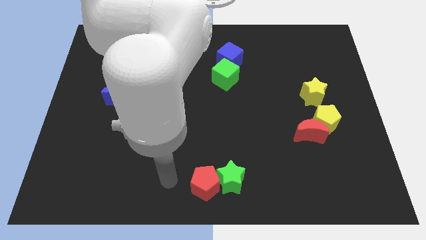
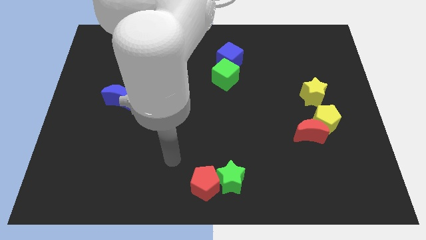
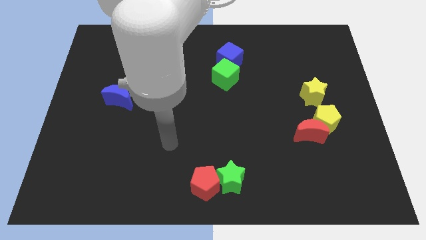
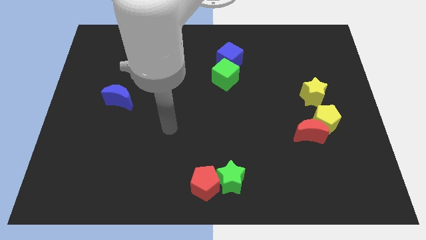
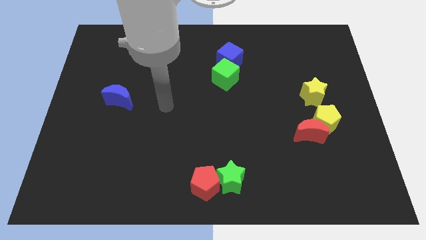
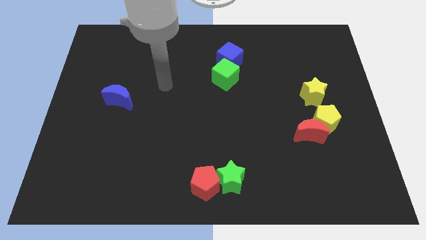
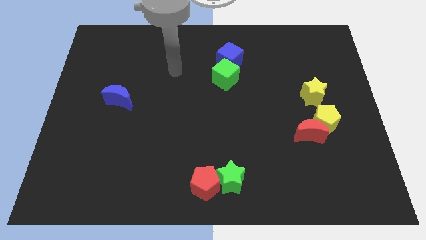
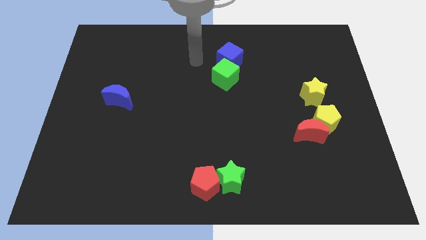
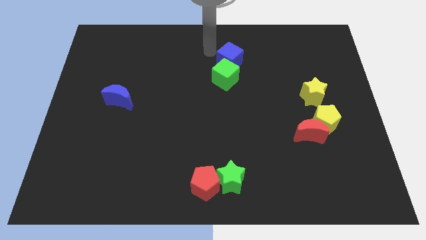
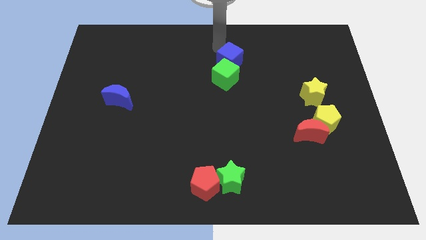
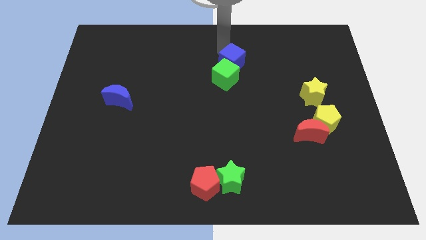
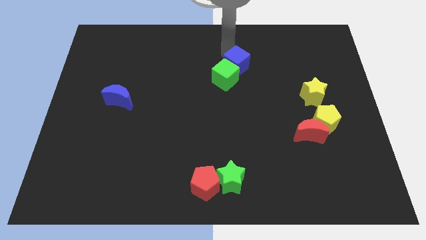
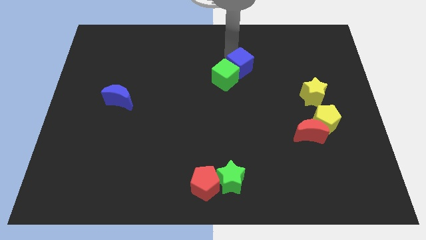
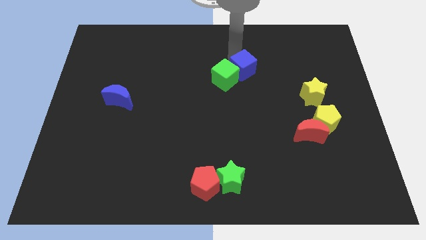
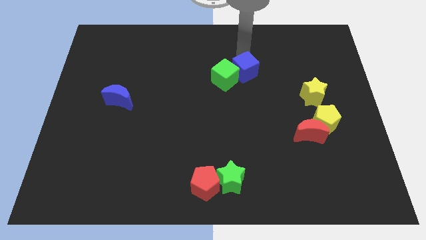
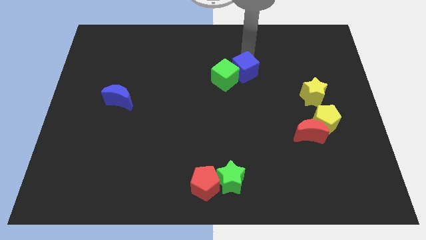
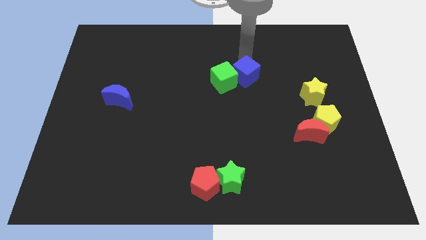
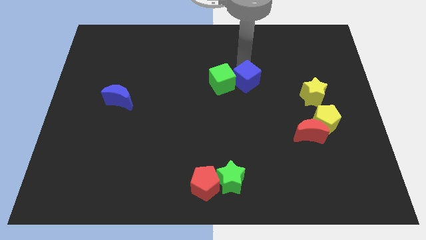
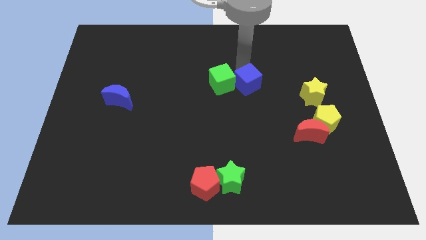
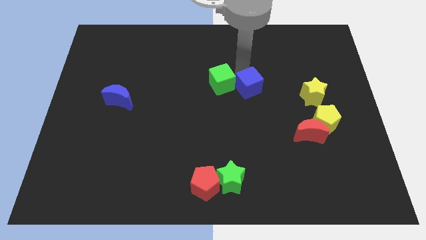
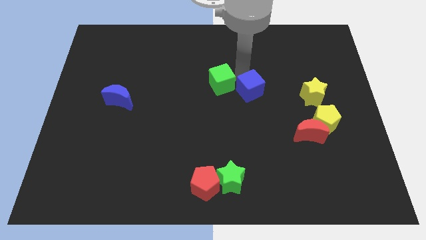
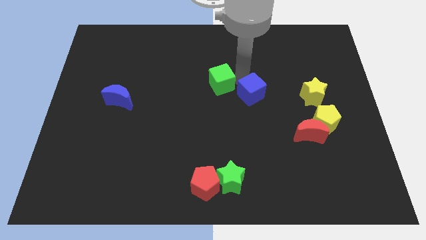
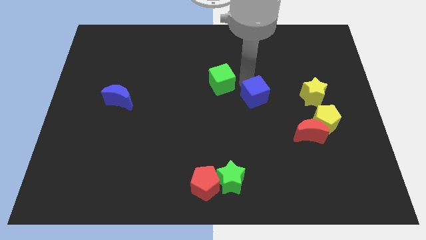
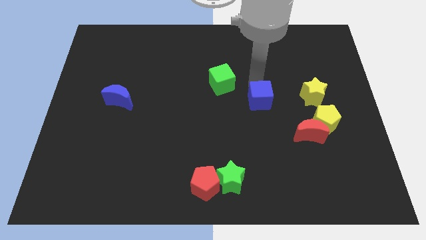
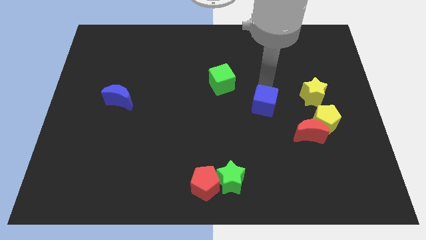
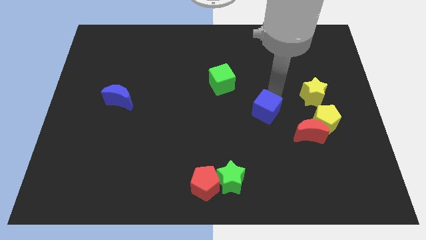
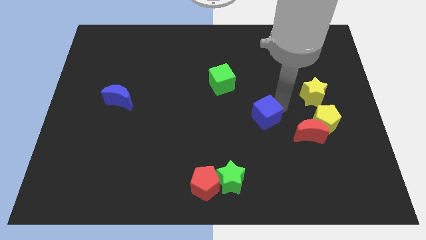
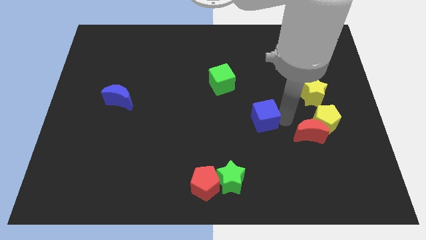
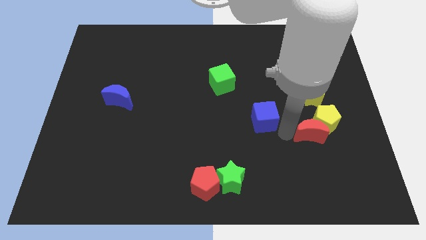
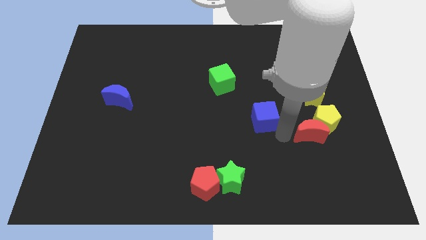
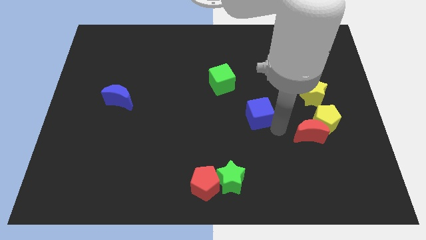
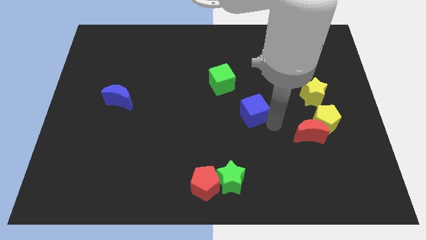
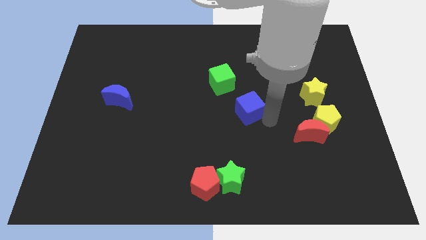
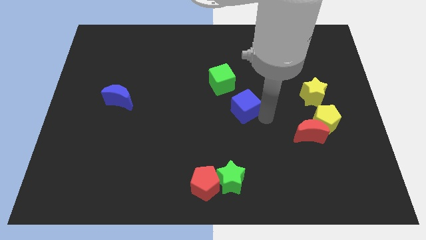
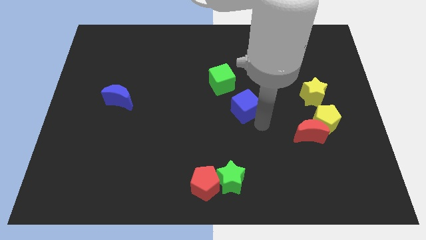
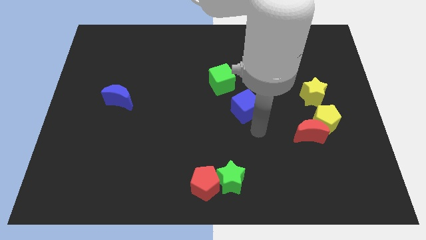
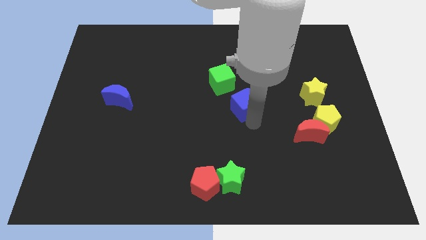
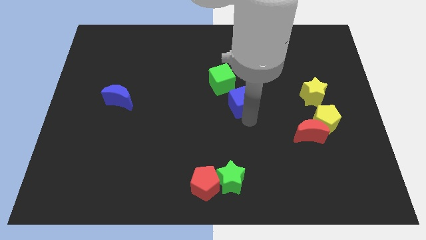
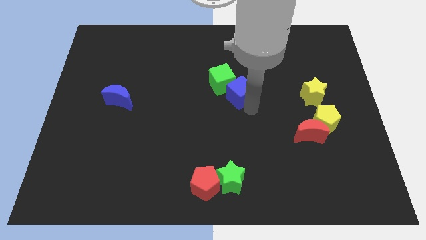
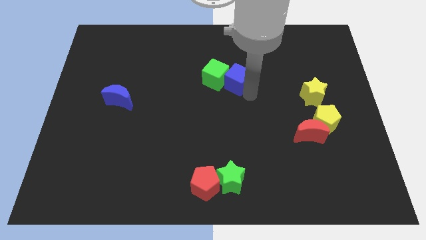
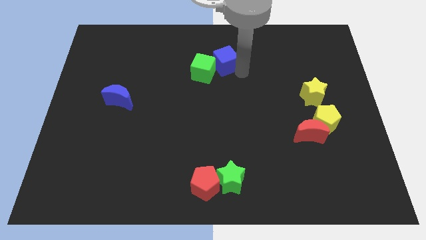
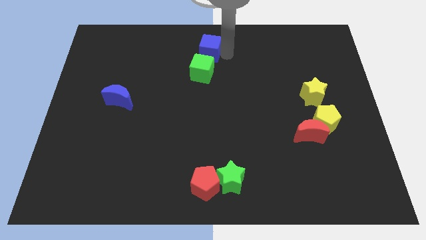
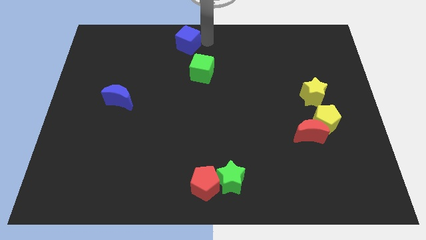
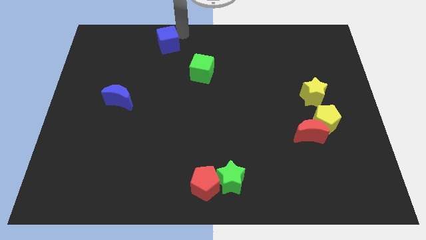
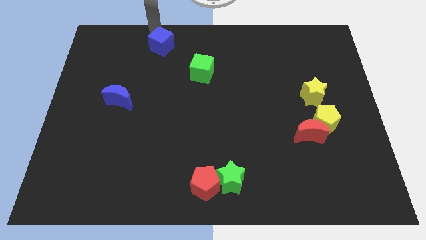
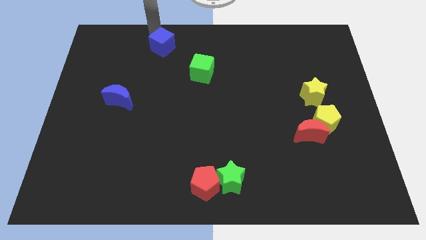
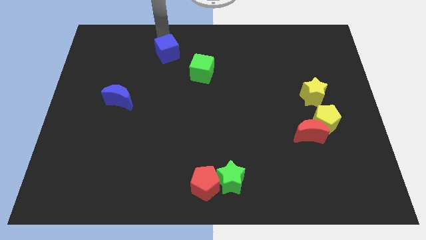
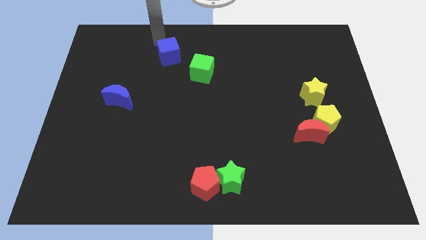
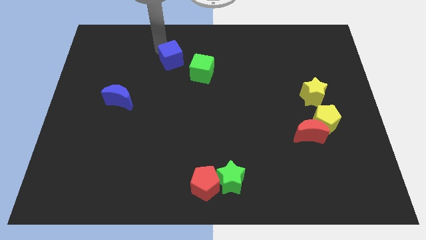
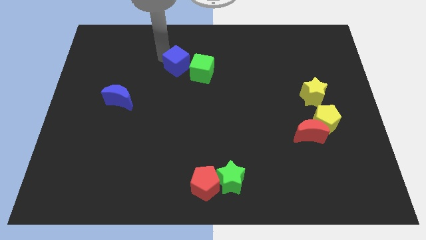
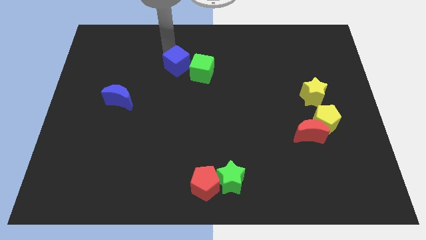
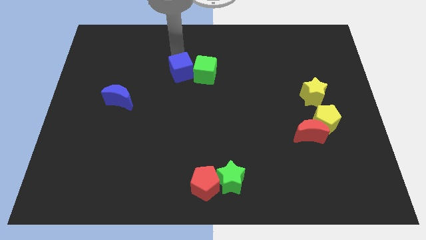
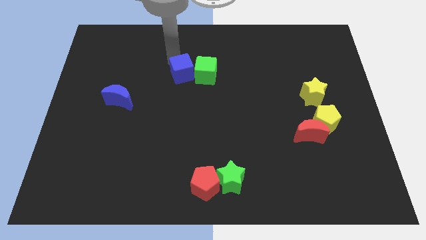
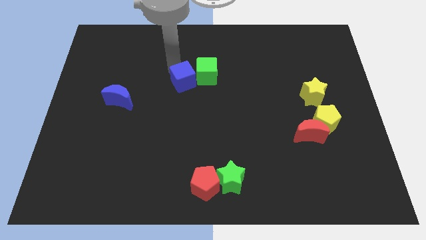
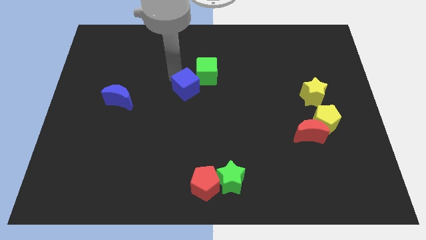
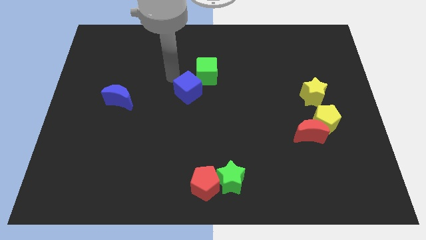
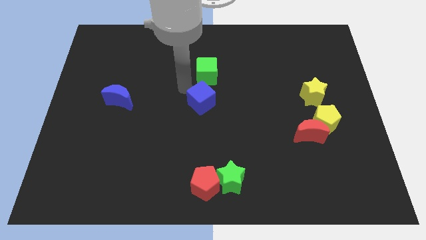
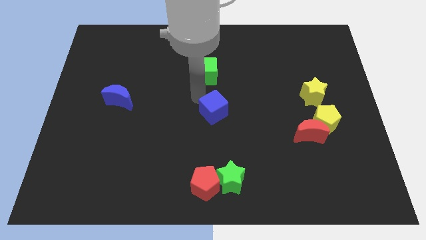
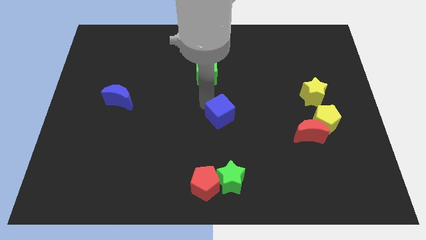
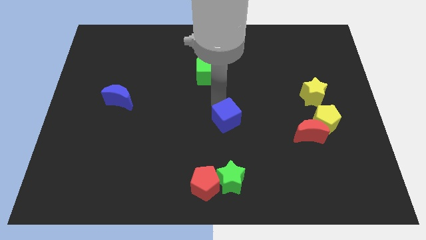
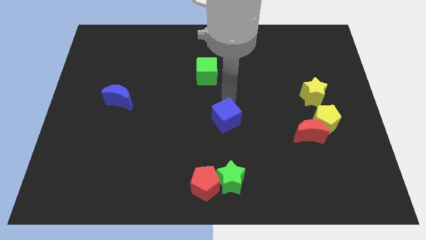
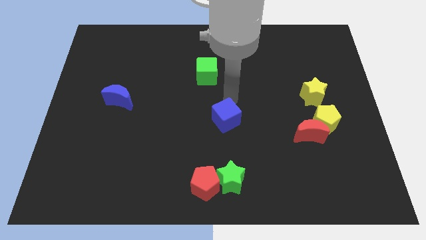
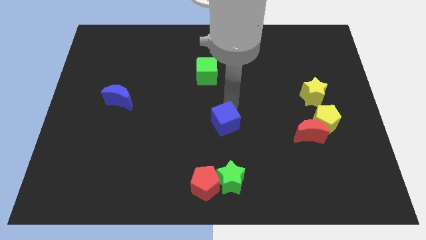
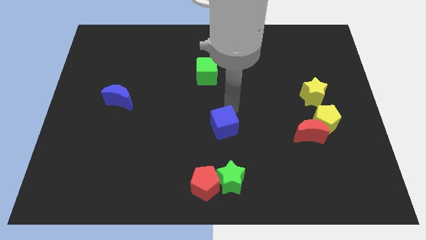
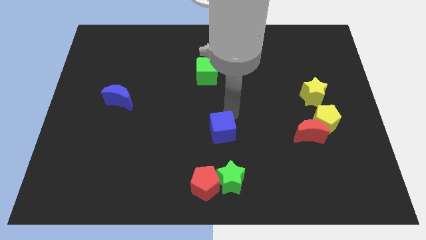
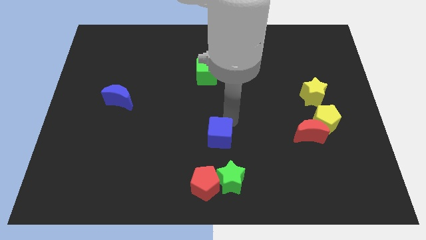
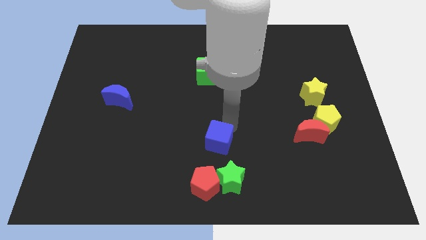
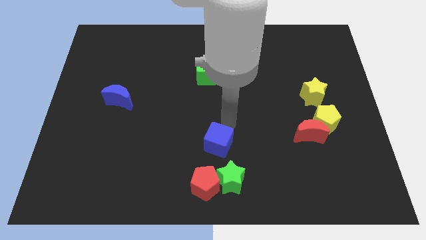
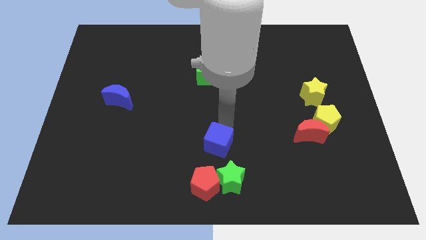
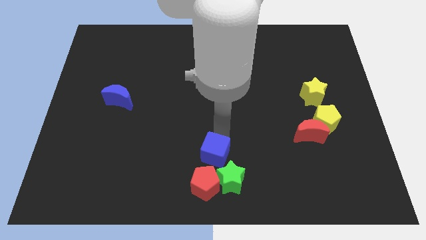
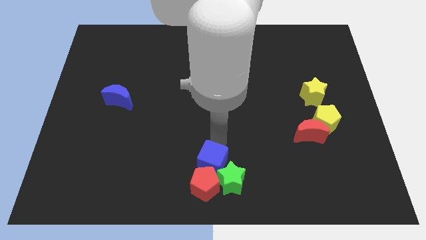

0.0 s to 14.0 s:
put the blue cube towards the red pentagon

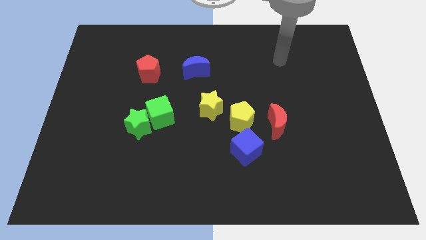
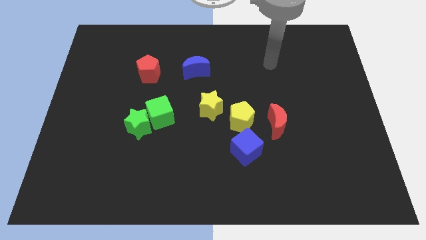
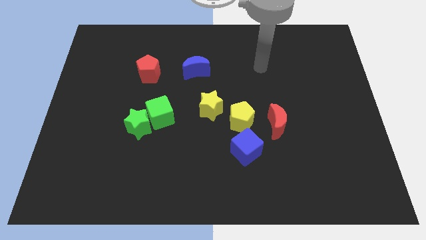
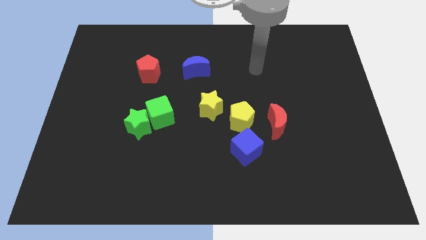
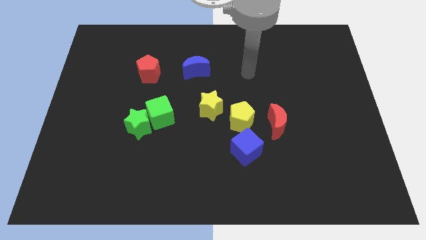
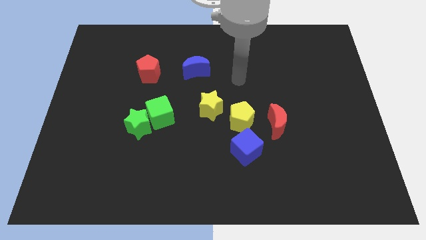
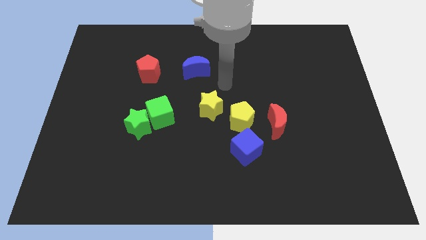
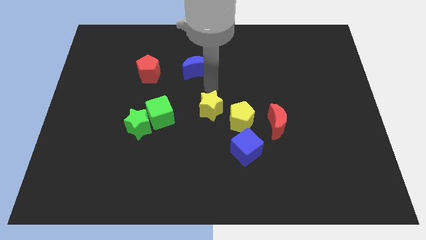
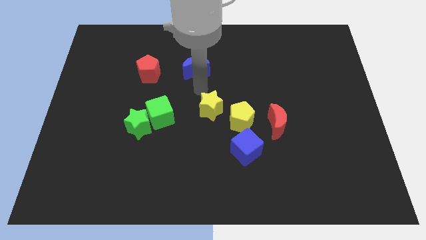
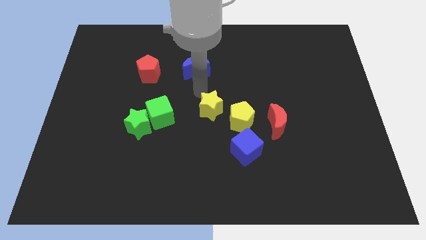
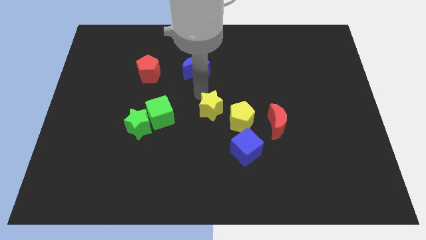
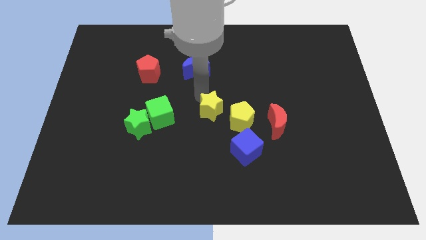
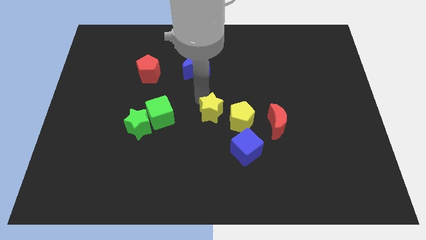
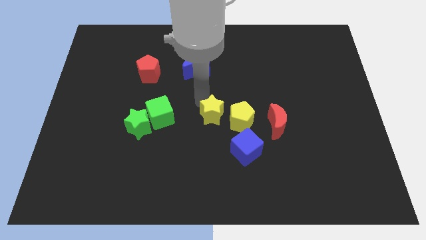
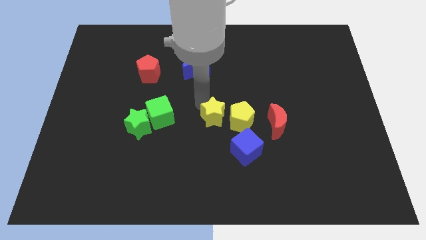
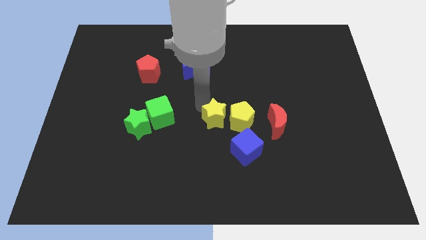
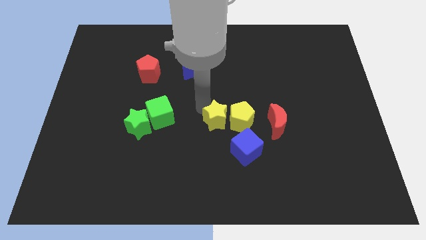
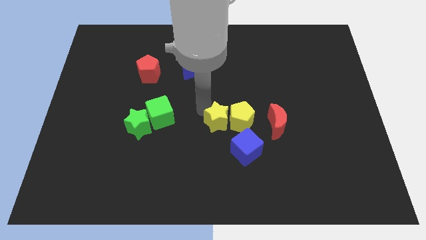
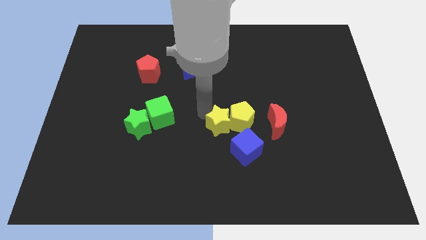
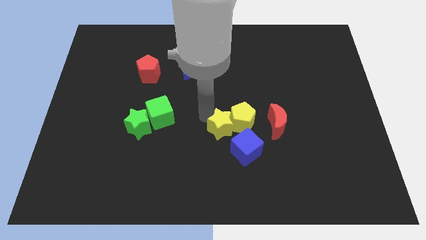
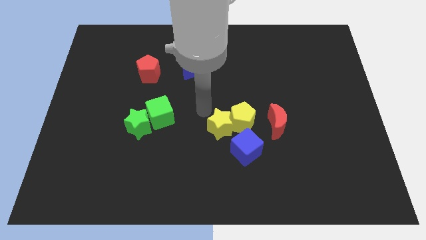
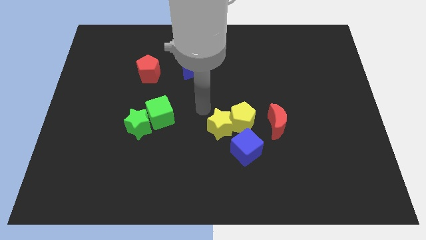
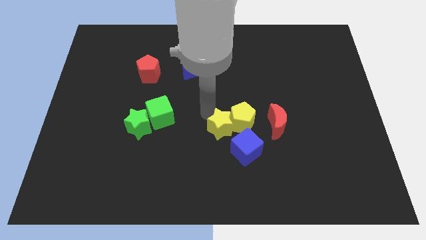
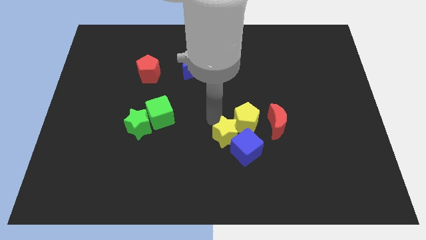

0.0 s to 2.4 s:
put the yellow star to the blue cube
